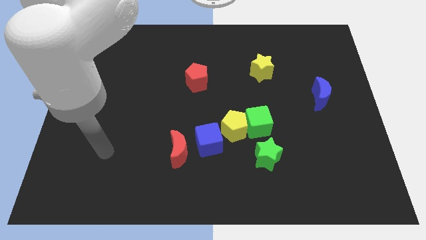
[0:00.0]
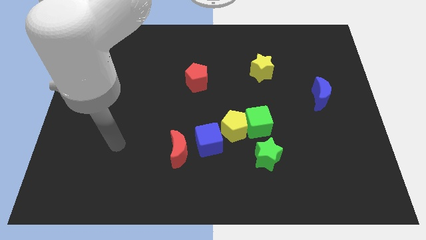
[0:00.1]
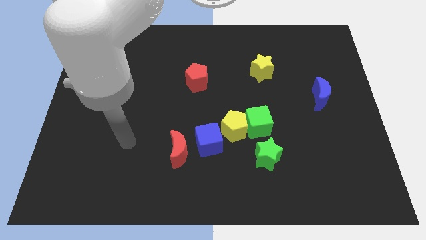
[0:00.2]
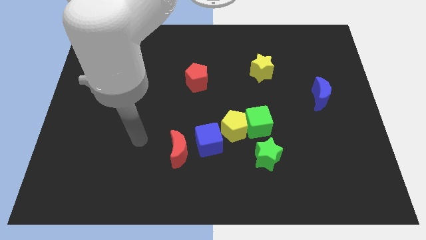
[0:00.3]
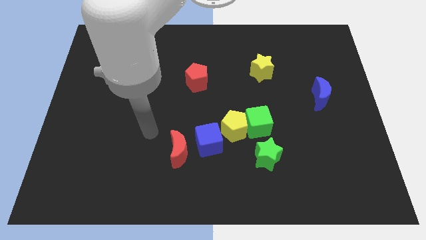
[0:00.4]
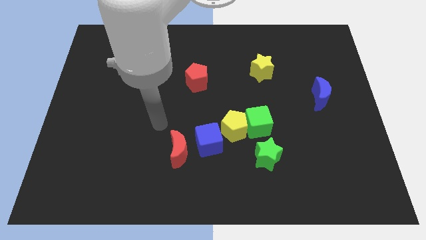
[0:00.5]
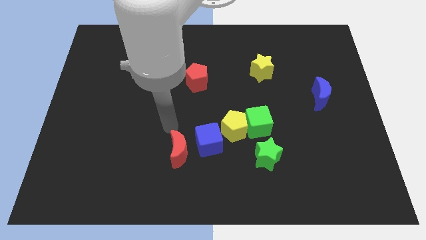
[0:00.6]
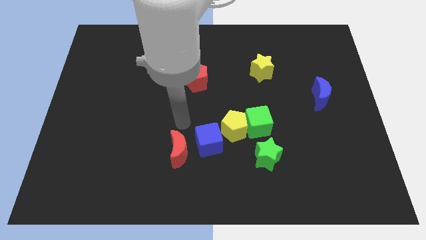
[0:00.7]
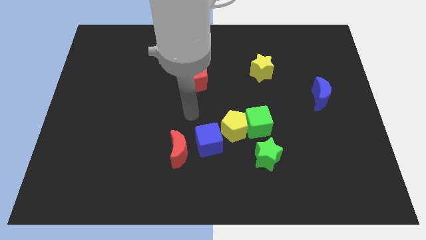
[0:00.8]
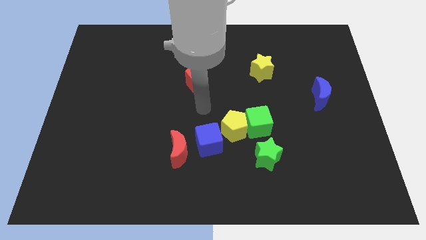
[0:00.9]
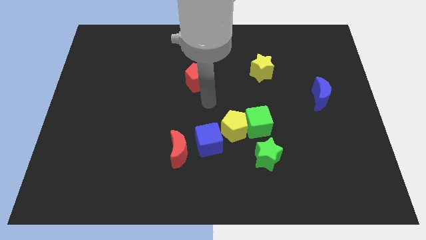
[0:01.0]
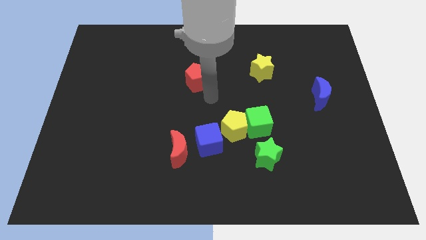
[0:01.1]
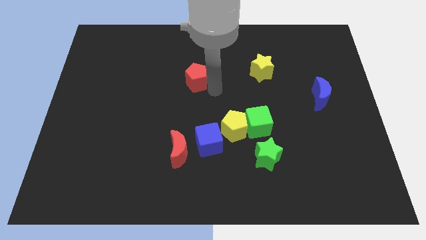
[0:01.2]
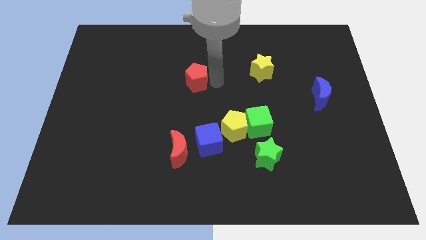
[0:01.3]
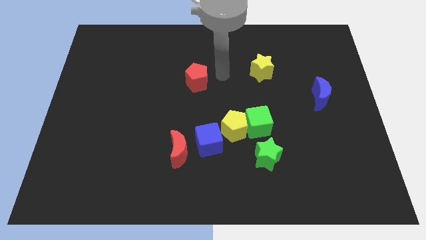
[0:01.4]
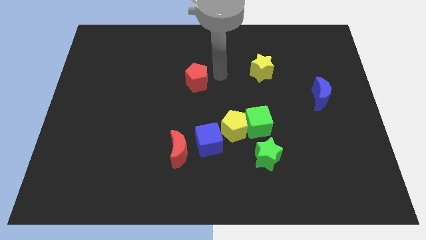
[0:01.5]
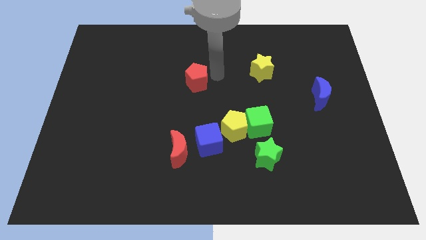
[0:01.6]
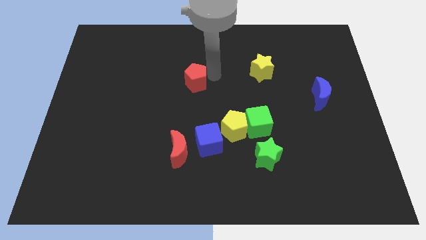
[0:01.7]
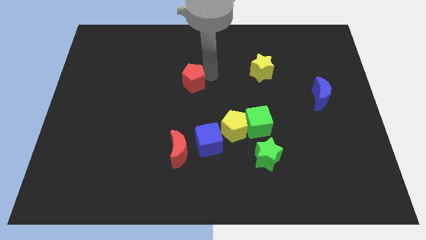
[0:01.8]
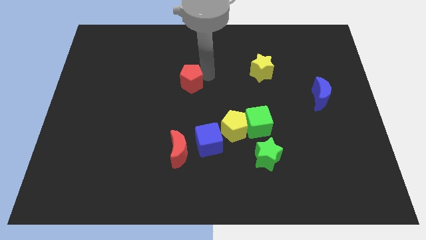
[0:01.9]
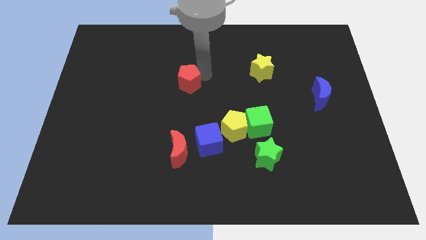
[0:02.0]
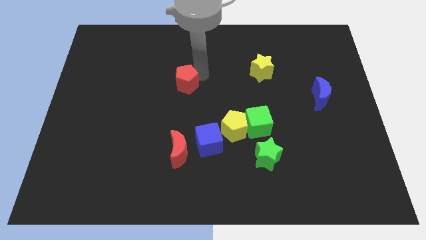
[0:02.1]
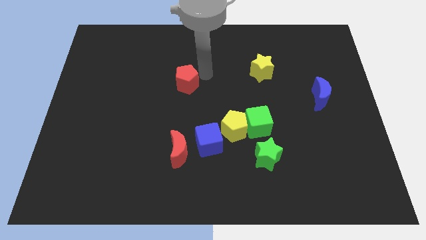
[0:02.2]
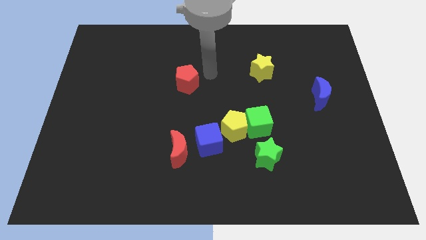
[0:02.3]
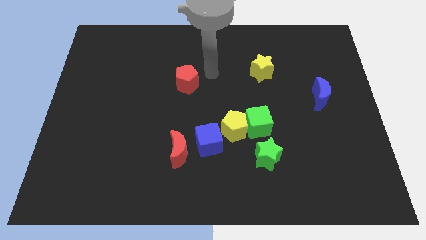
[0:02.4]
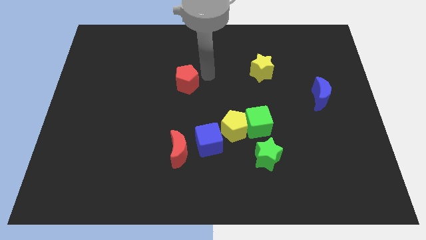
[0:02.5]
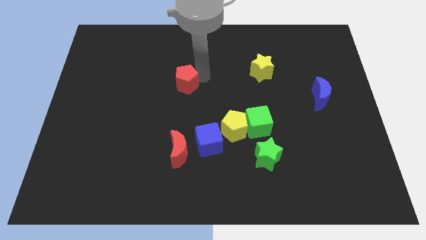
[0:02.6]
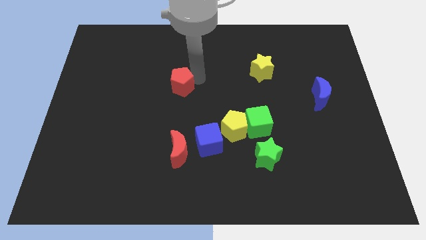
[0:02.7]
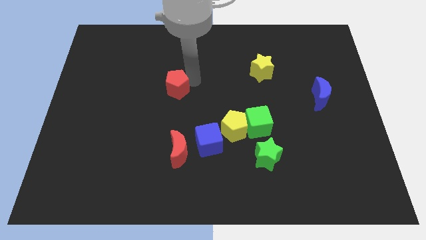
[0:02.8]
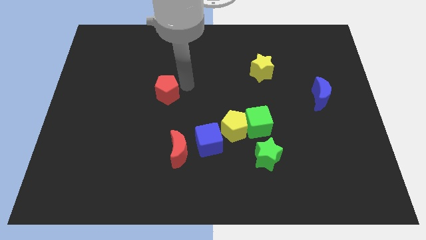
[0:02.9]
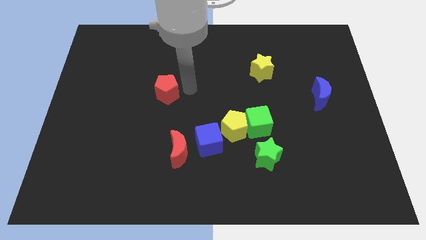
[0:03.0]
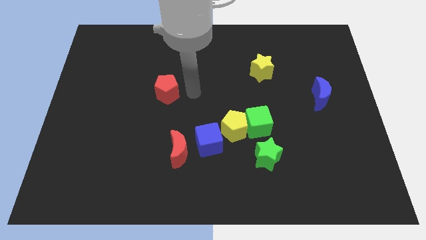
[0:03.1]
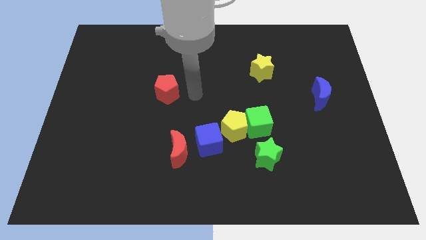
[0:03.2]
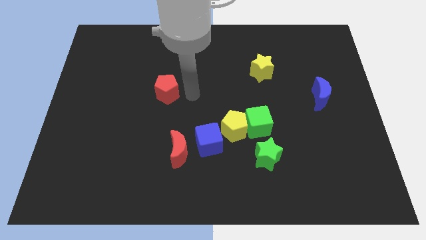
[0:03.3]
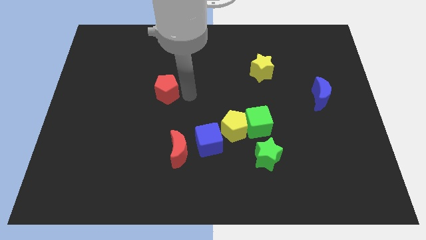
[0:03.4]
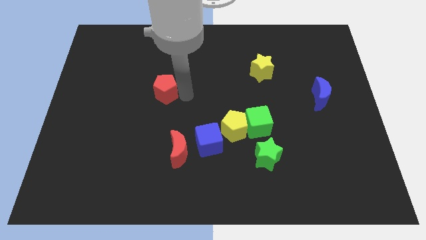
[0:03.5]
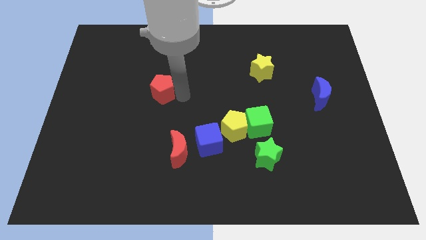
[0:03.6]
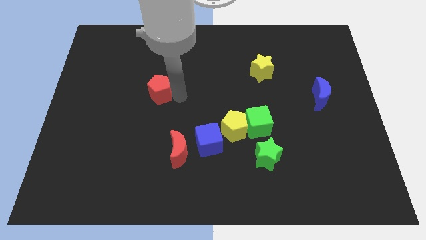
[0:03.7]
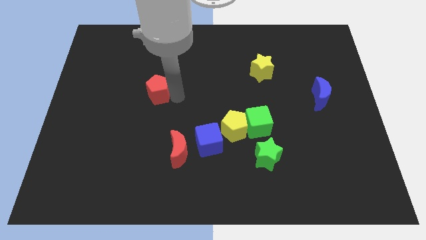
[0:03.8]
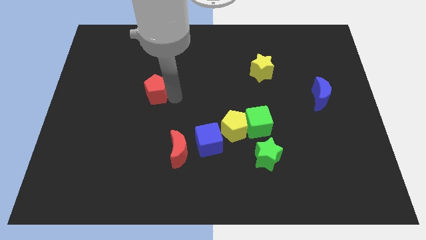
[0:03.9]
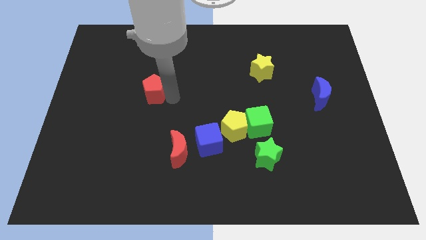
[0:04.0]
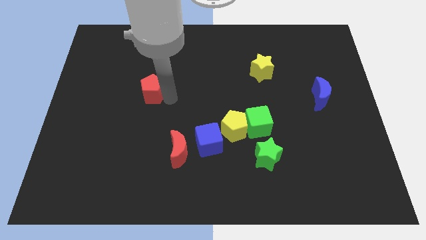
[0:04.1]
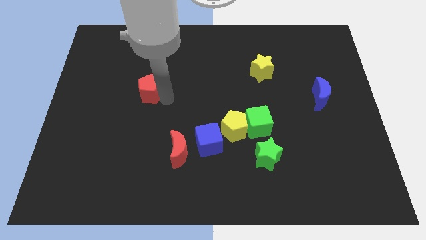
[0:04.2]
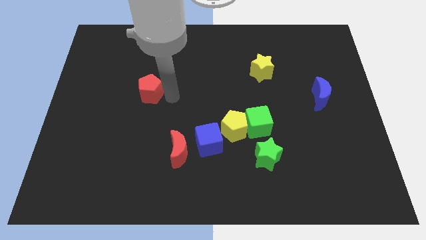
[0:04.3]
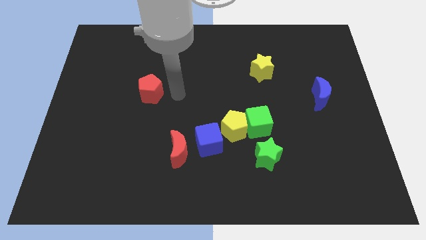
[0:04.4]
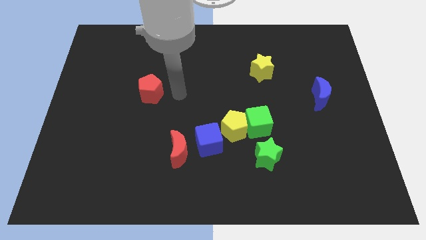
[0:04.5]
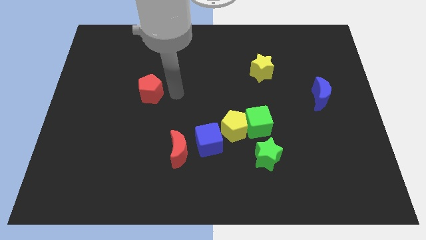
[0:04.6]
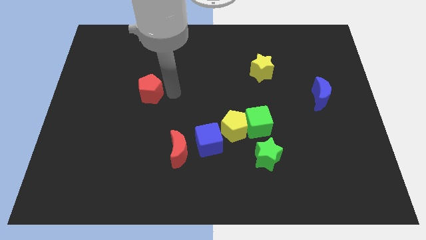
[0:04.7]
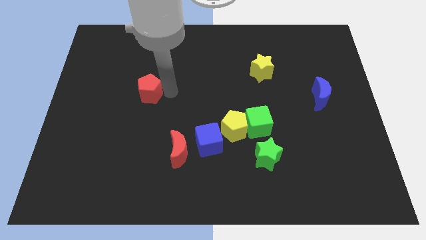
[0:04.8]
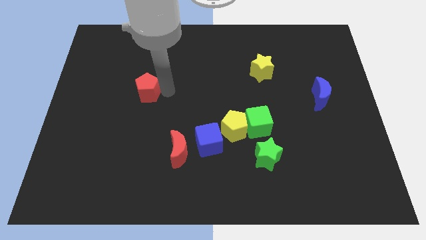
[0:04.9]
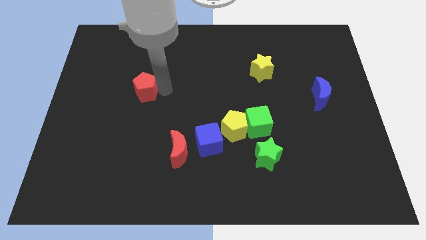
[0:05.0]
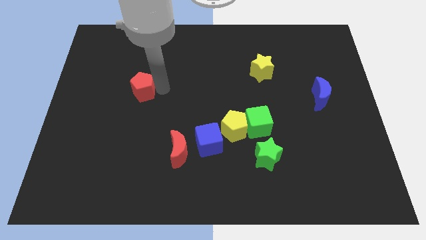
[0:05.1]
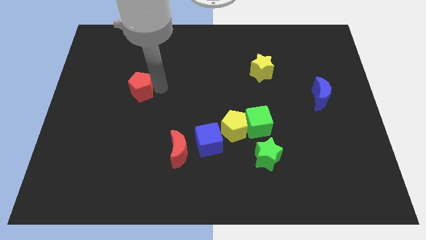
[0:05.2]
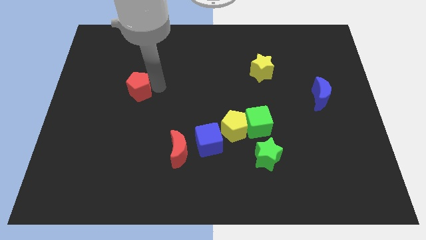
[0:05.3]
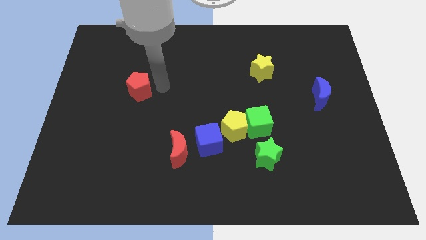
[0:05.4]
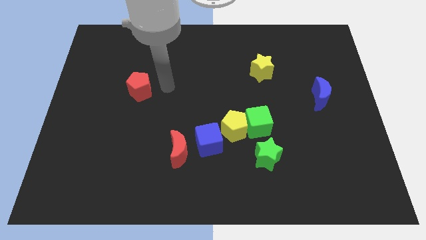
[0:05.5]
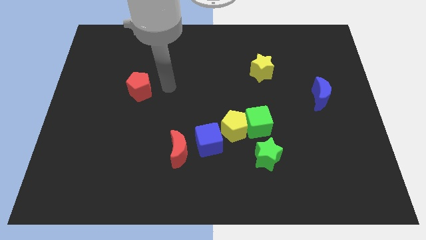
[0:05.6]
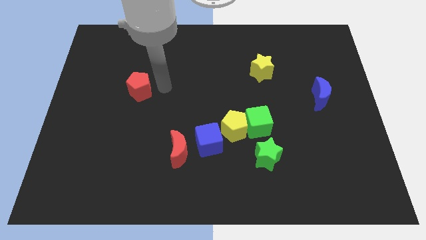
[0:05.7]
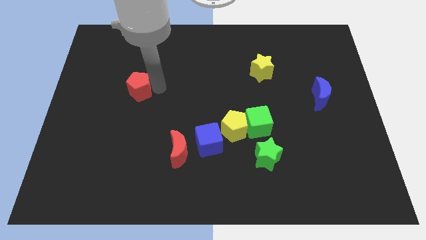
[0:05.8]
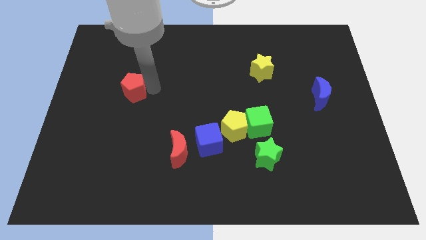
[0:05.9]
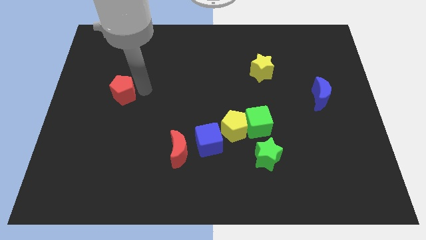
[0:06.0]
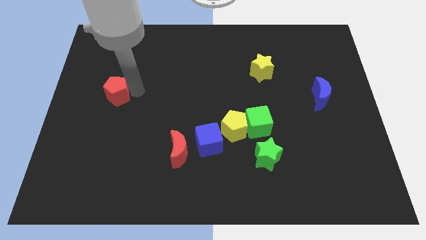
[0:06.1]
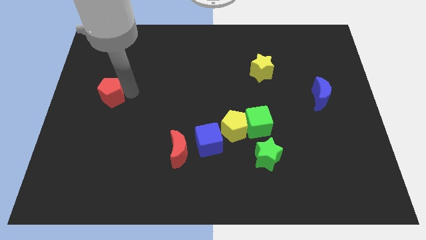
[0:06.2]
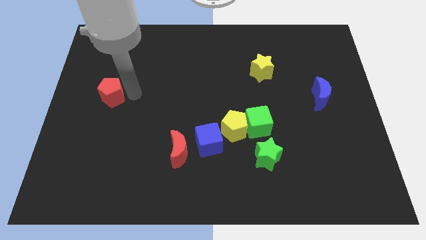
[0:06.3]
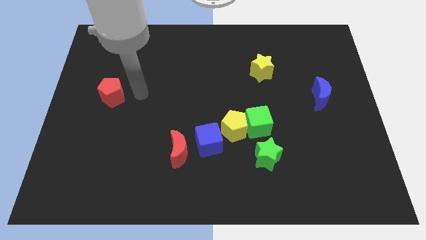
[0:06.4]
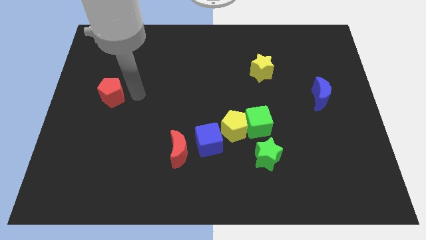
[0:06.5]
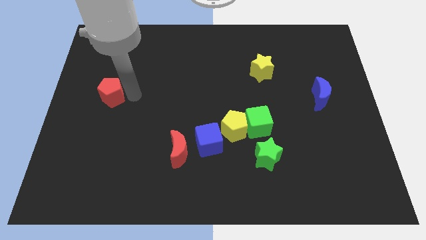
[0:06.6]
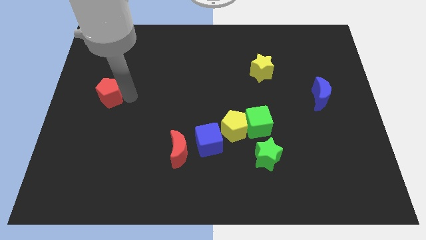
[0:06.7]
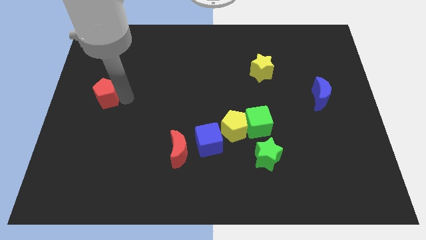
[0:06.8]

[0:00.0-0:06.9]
slide the red pentagon to the center left
